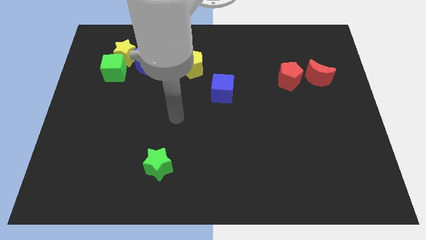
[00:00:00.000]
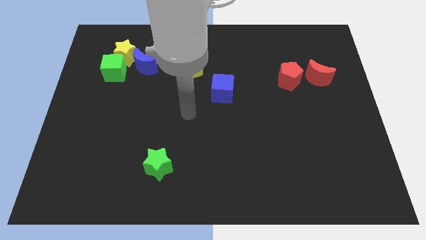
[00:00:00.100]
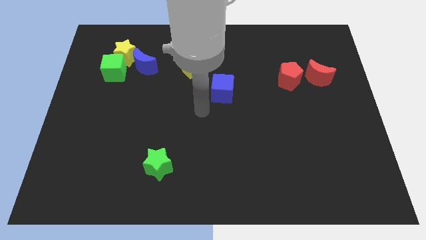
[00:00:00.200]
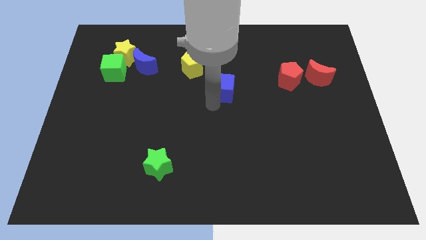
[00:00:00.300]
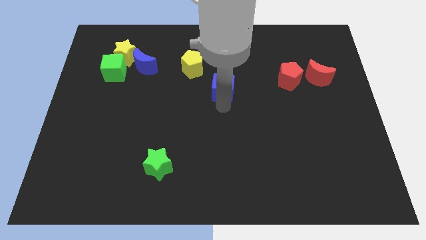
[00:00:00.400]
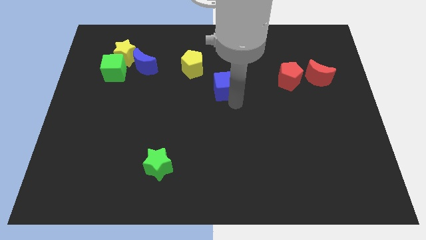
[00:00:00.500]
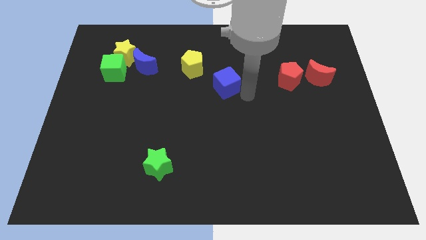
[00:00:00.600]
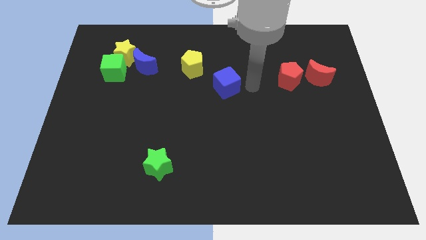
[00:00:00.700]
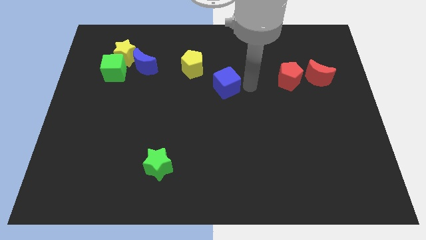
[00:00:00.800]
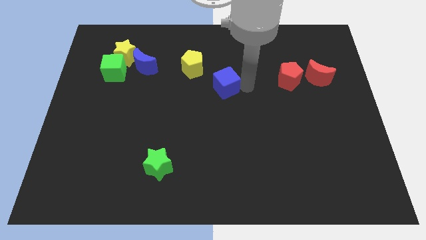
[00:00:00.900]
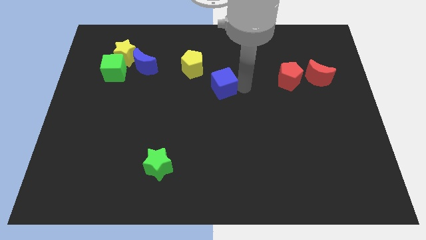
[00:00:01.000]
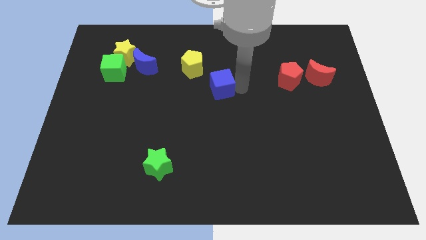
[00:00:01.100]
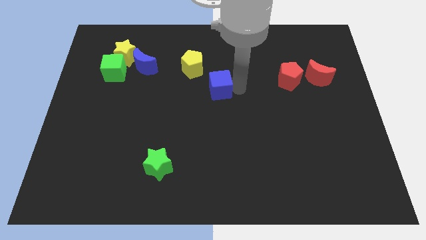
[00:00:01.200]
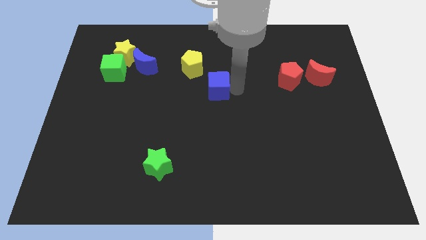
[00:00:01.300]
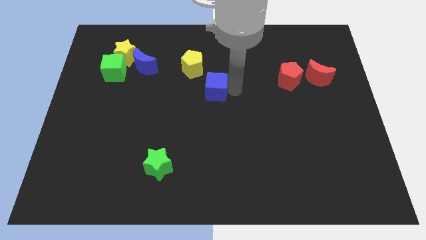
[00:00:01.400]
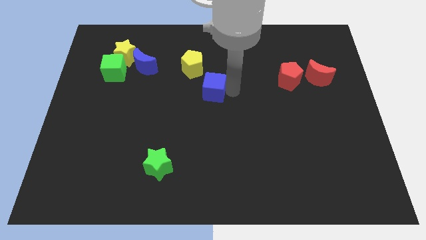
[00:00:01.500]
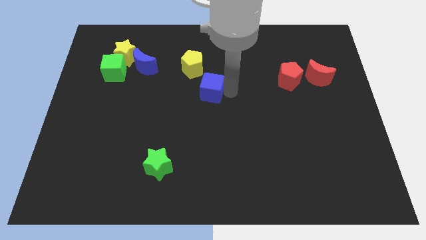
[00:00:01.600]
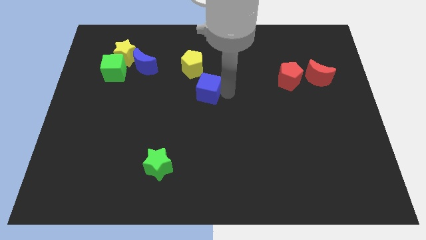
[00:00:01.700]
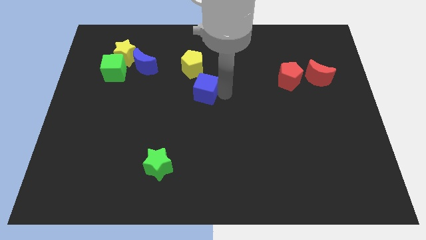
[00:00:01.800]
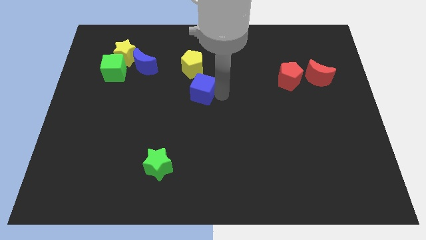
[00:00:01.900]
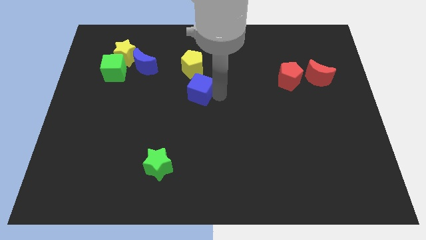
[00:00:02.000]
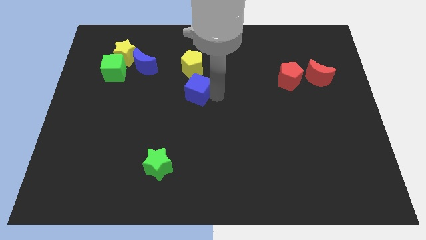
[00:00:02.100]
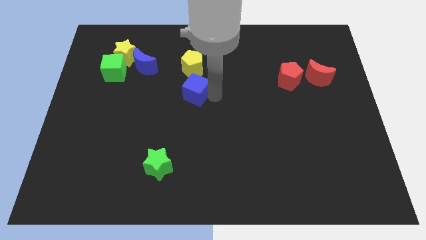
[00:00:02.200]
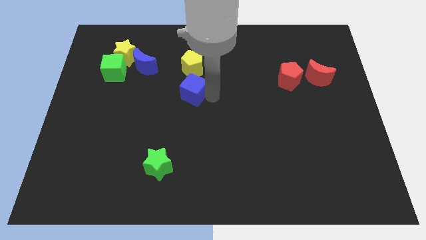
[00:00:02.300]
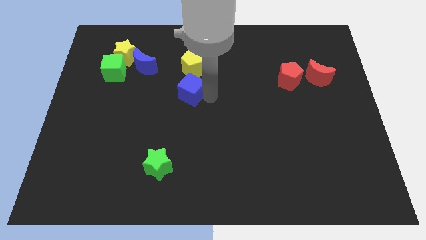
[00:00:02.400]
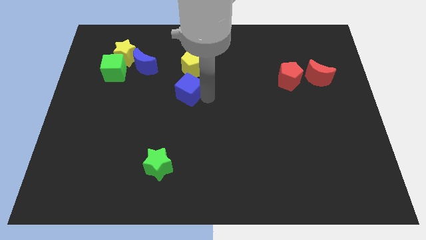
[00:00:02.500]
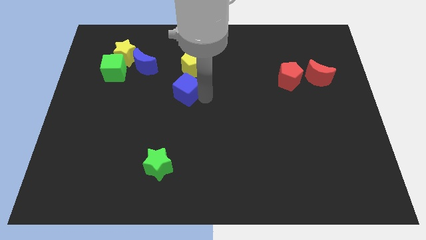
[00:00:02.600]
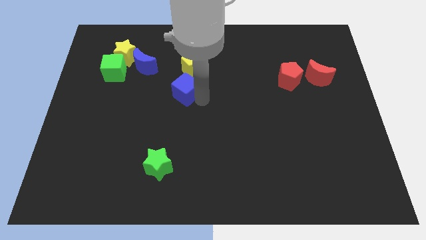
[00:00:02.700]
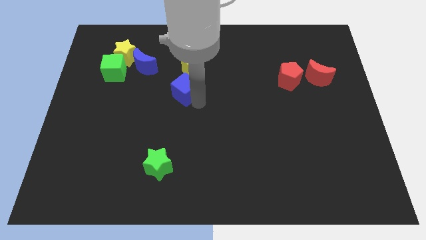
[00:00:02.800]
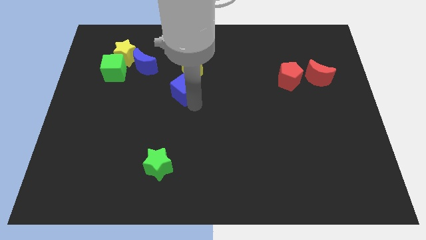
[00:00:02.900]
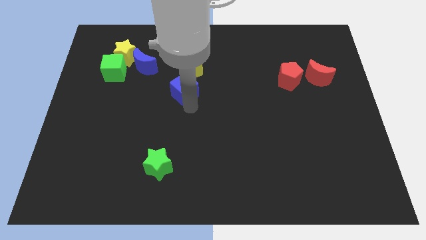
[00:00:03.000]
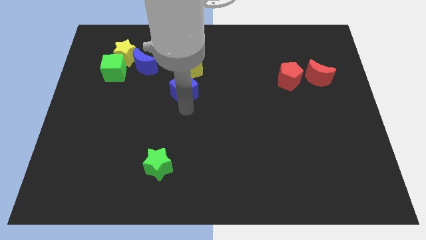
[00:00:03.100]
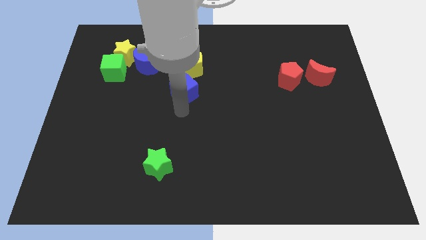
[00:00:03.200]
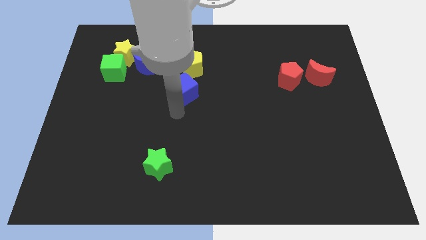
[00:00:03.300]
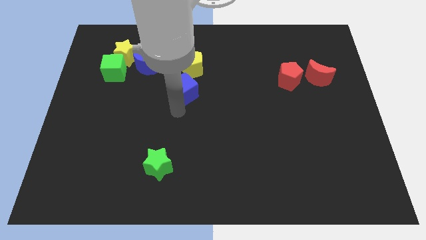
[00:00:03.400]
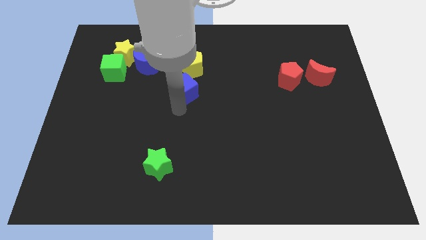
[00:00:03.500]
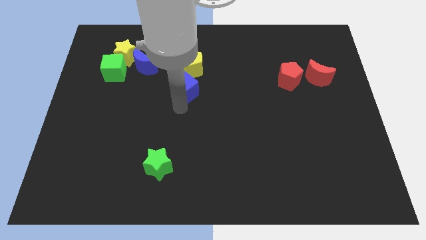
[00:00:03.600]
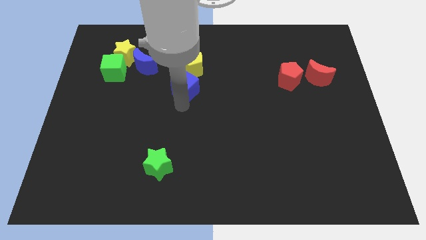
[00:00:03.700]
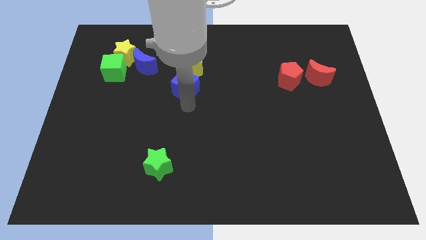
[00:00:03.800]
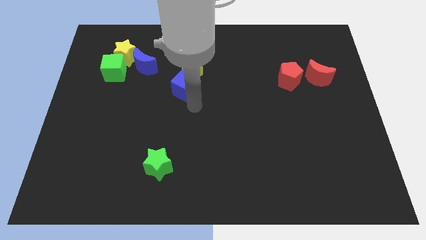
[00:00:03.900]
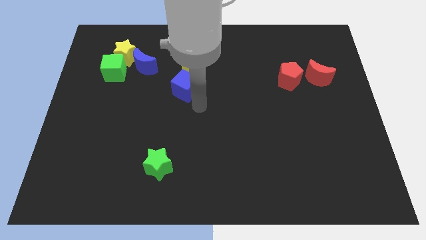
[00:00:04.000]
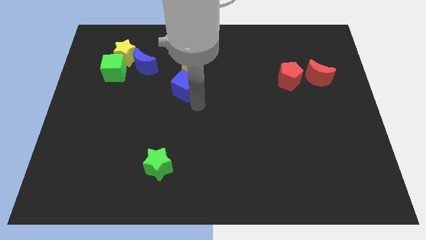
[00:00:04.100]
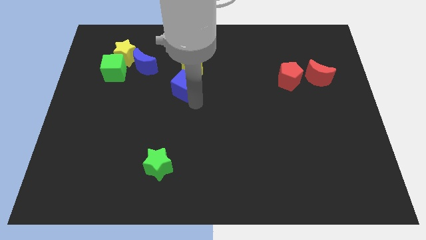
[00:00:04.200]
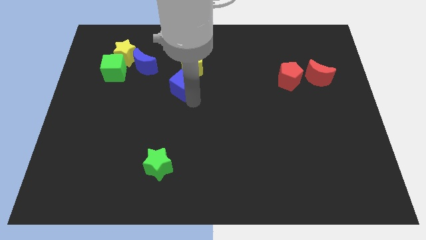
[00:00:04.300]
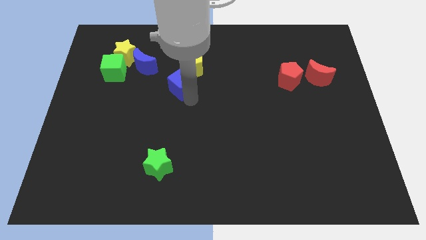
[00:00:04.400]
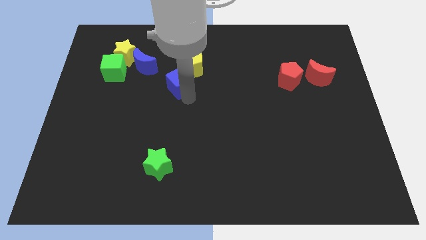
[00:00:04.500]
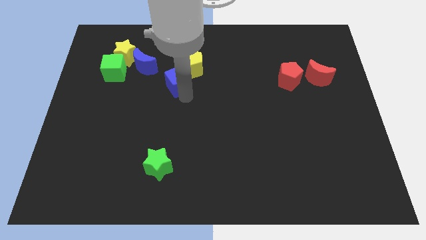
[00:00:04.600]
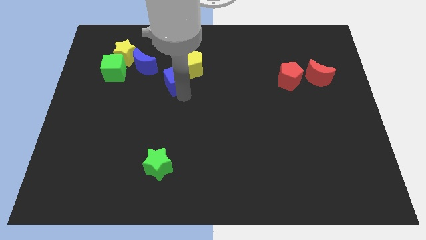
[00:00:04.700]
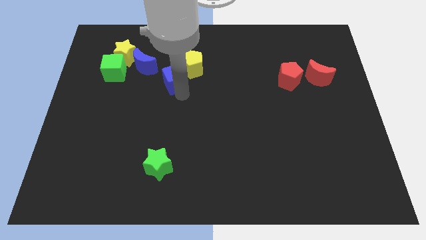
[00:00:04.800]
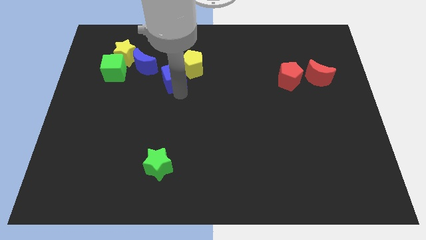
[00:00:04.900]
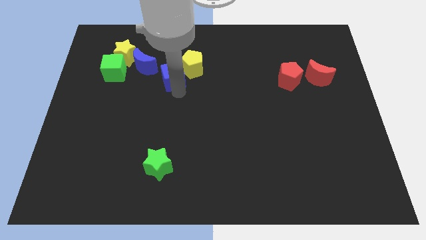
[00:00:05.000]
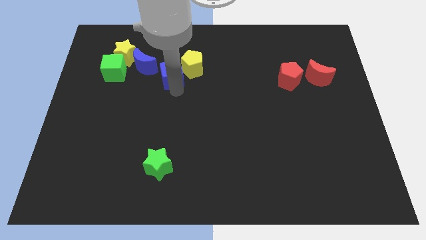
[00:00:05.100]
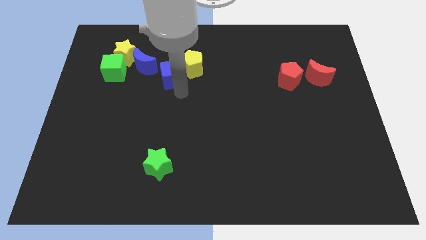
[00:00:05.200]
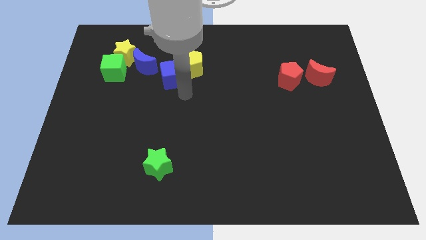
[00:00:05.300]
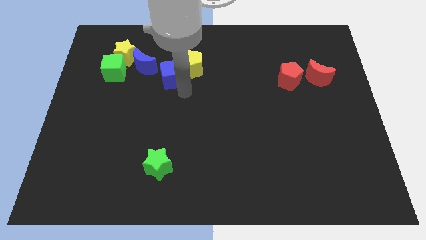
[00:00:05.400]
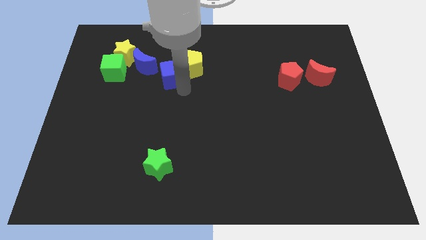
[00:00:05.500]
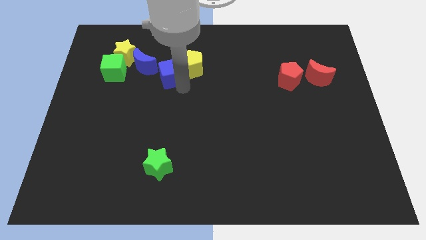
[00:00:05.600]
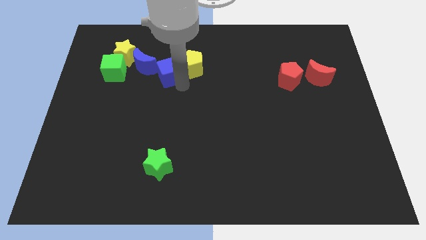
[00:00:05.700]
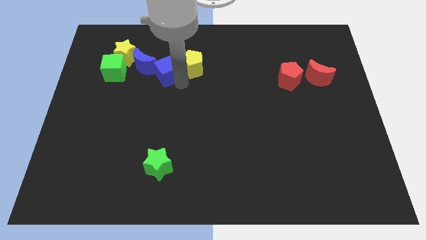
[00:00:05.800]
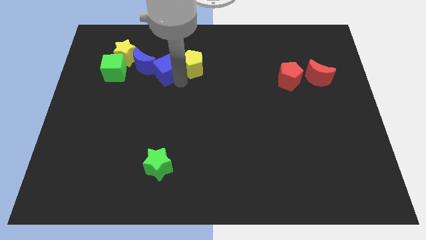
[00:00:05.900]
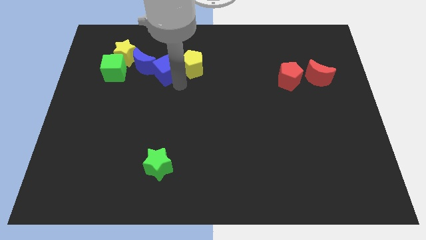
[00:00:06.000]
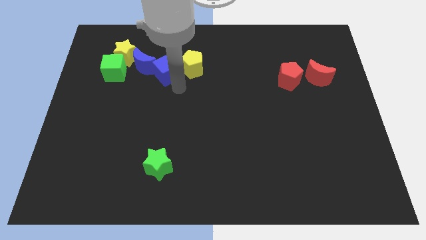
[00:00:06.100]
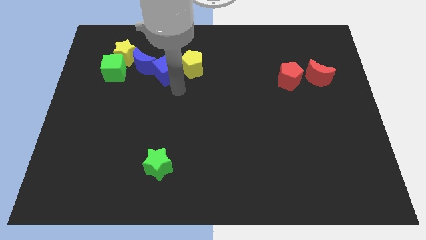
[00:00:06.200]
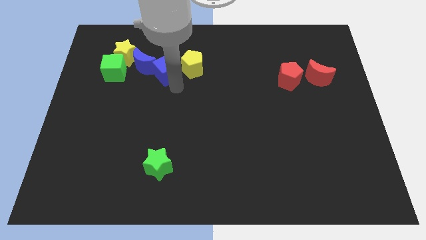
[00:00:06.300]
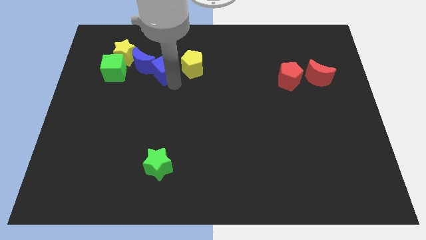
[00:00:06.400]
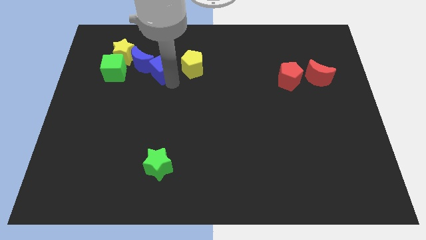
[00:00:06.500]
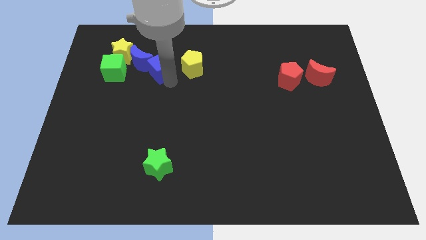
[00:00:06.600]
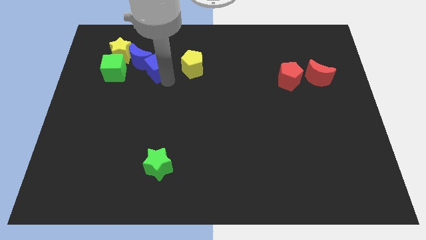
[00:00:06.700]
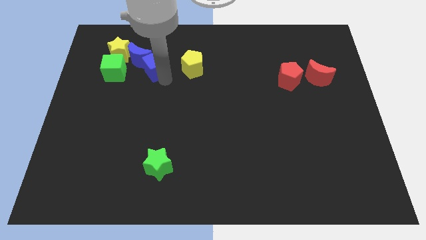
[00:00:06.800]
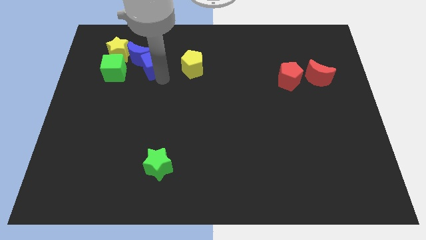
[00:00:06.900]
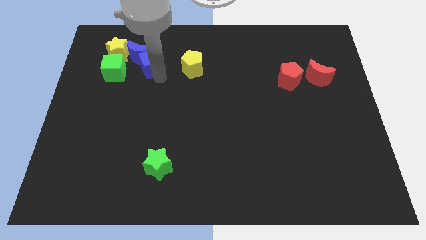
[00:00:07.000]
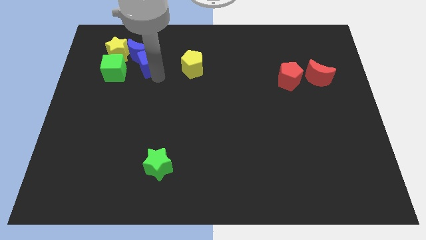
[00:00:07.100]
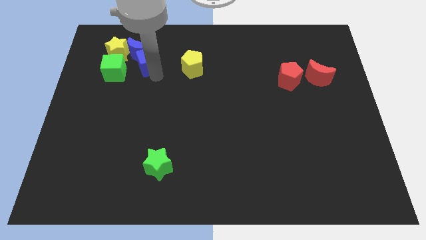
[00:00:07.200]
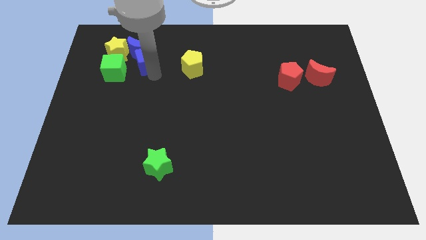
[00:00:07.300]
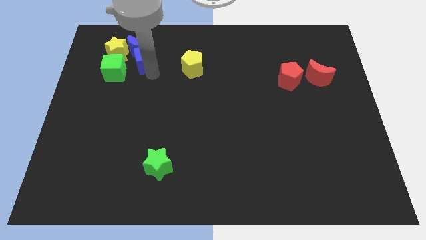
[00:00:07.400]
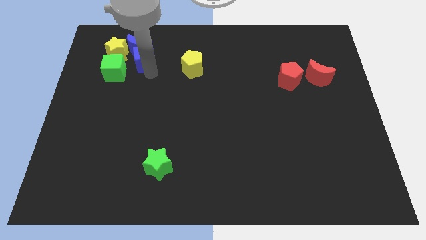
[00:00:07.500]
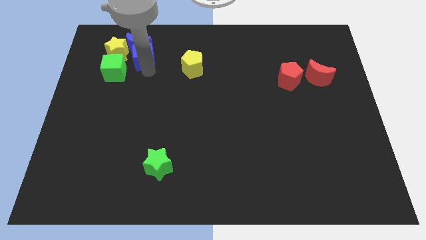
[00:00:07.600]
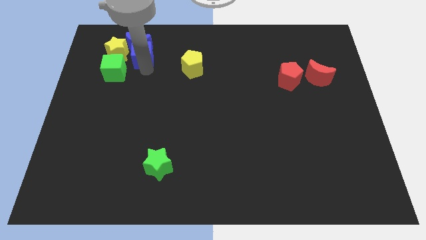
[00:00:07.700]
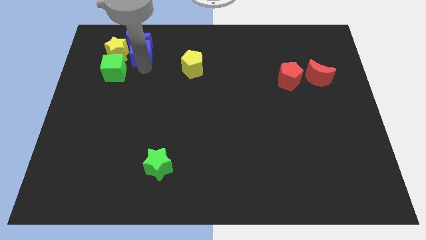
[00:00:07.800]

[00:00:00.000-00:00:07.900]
put the blue cube close to the yellow star
